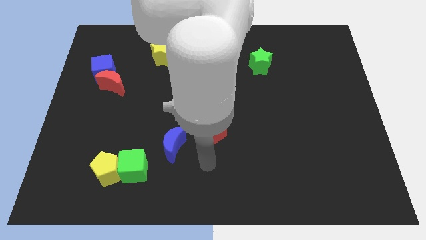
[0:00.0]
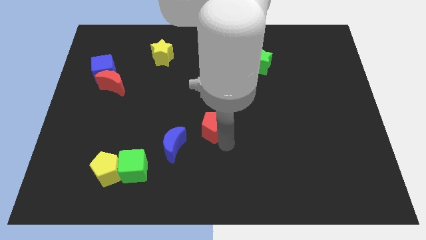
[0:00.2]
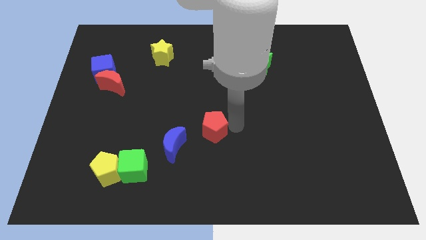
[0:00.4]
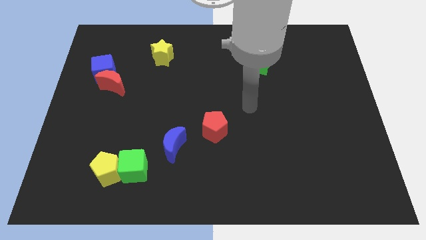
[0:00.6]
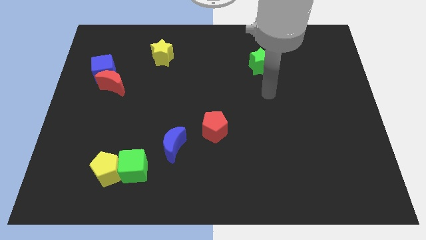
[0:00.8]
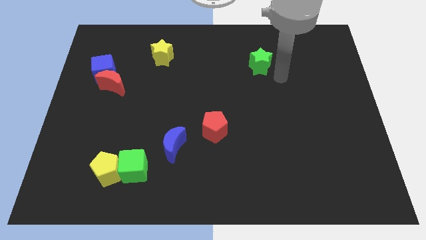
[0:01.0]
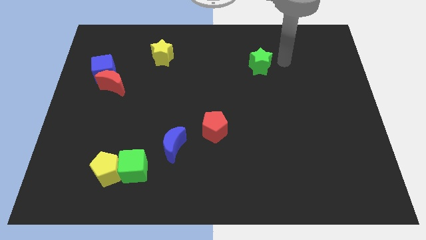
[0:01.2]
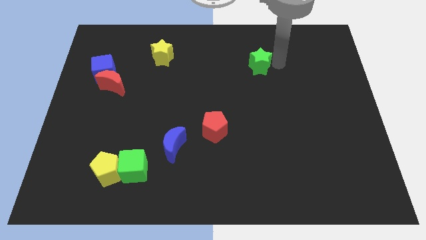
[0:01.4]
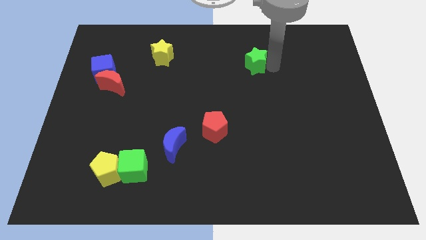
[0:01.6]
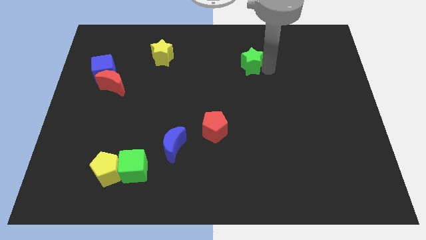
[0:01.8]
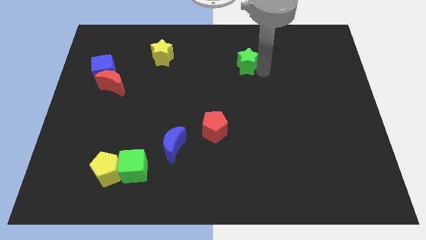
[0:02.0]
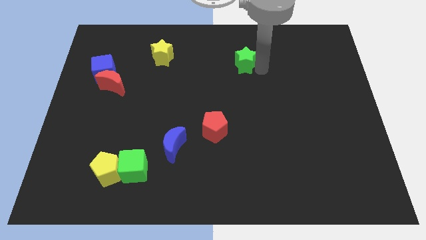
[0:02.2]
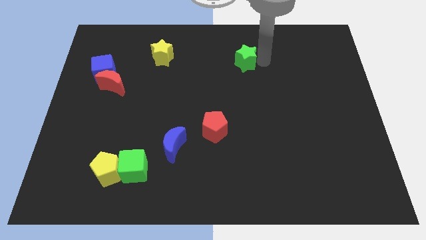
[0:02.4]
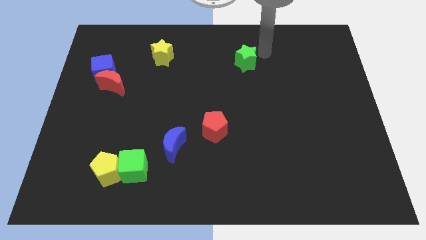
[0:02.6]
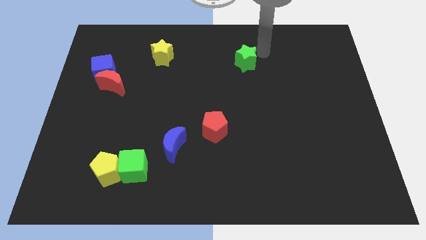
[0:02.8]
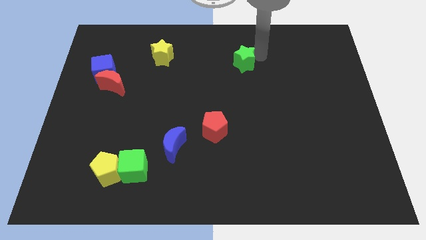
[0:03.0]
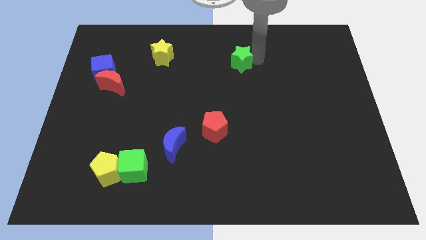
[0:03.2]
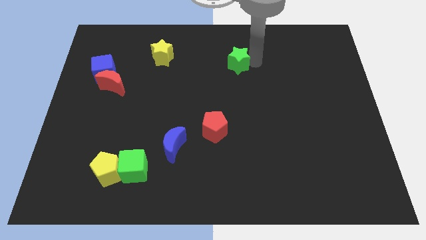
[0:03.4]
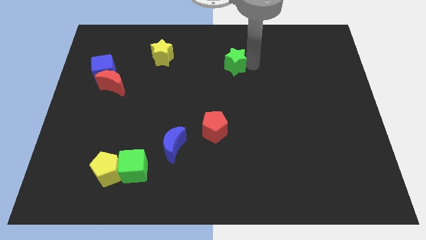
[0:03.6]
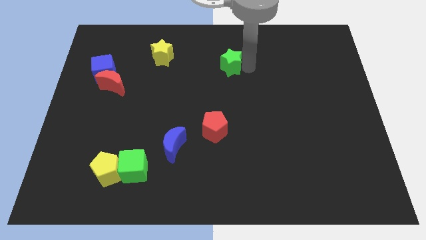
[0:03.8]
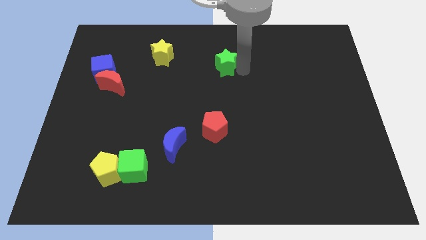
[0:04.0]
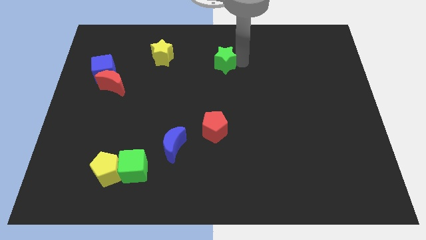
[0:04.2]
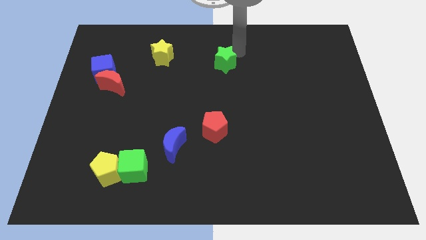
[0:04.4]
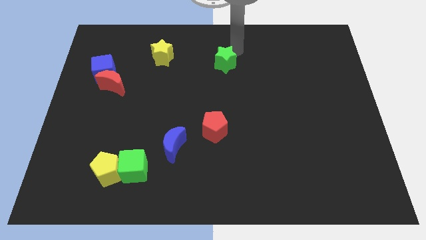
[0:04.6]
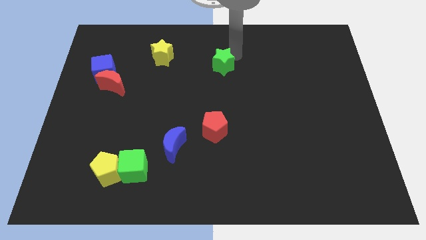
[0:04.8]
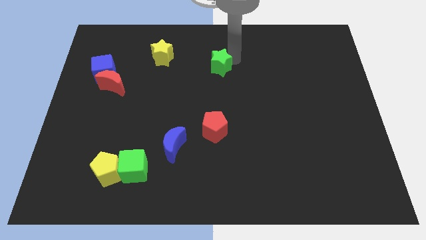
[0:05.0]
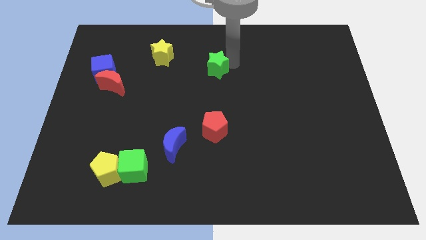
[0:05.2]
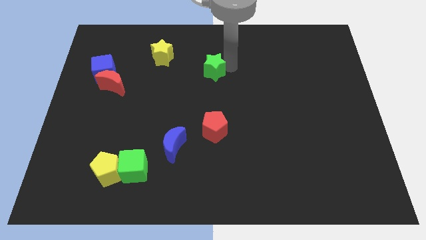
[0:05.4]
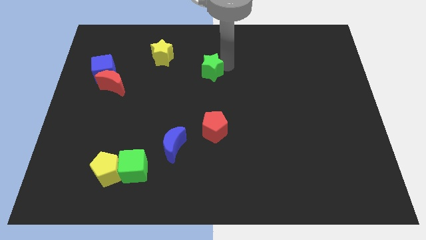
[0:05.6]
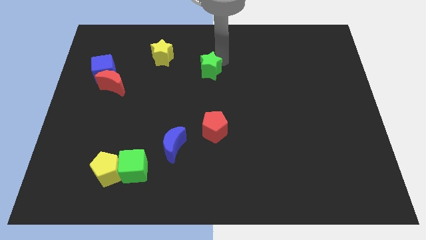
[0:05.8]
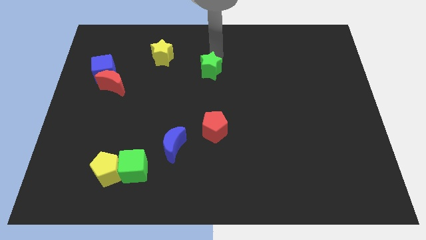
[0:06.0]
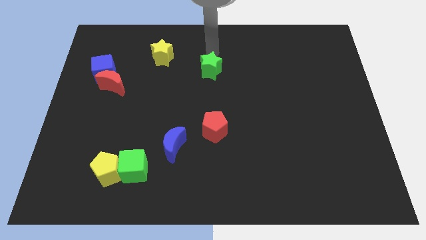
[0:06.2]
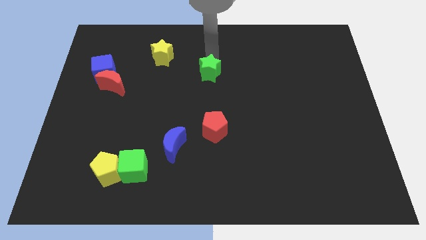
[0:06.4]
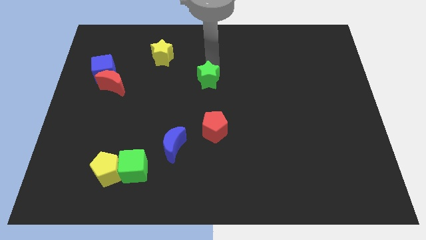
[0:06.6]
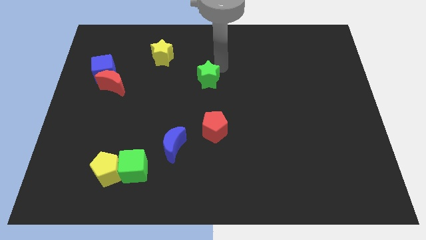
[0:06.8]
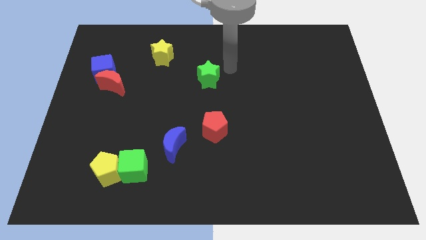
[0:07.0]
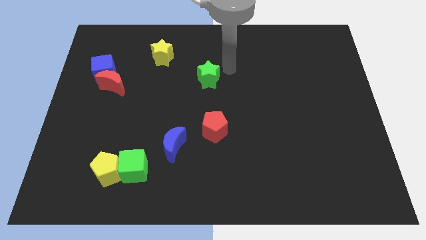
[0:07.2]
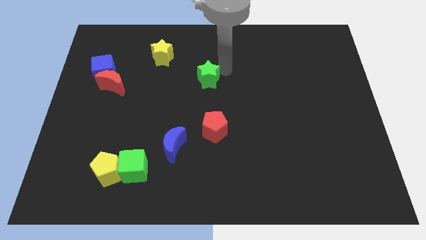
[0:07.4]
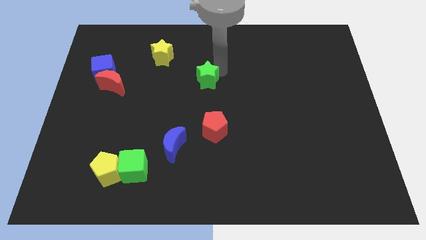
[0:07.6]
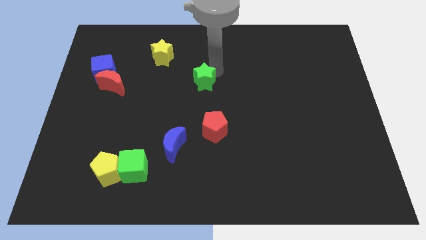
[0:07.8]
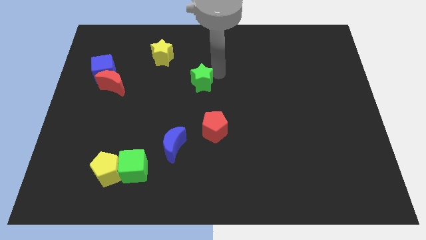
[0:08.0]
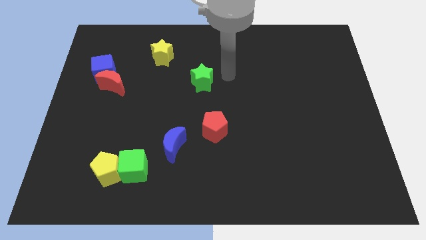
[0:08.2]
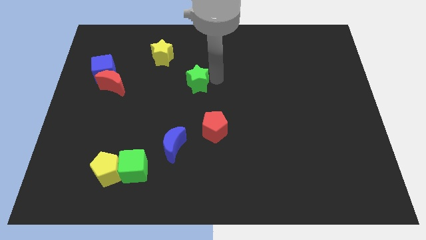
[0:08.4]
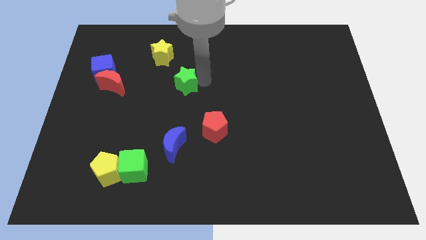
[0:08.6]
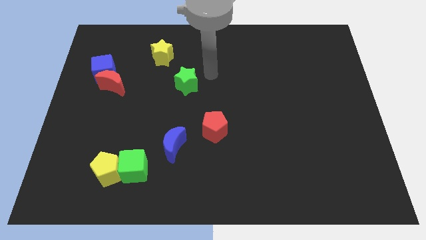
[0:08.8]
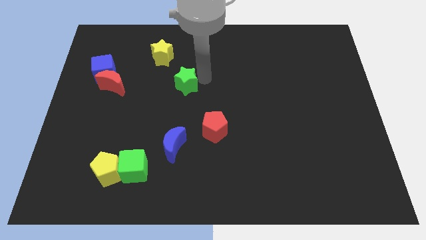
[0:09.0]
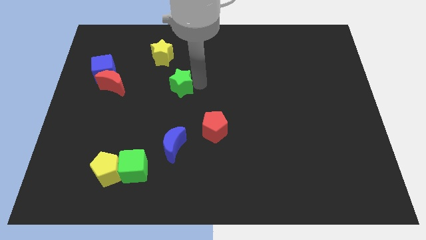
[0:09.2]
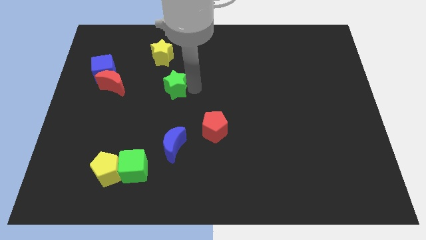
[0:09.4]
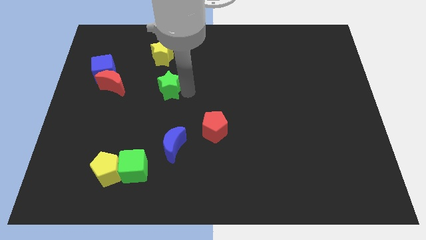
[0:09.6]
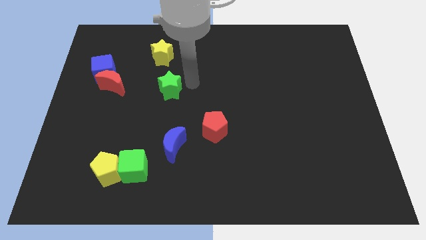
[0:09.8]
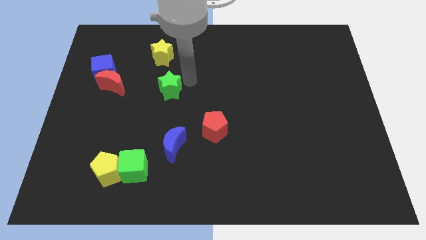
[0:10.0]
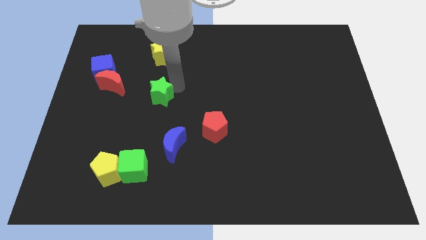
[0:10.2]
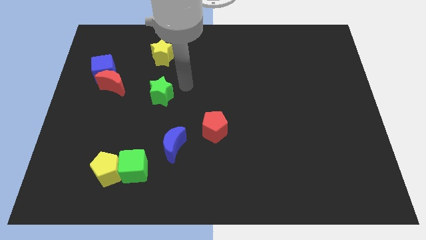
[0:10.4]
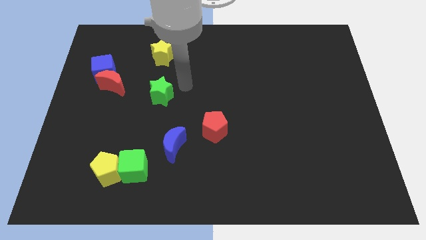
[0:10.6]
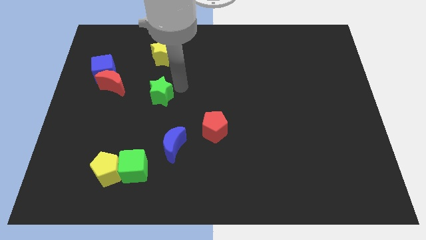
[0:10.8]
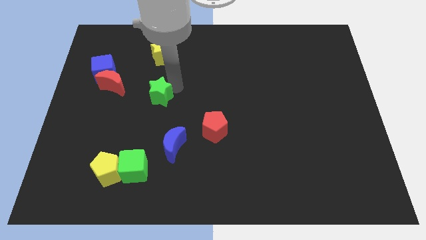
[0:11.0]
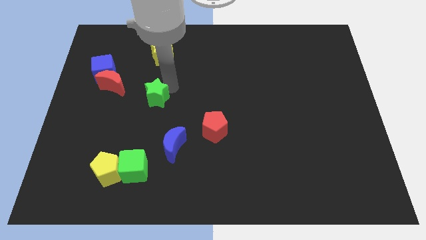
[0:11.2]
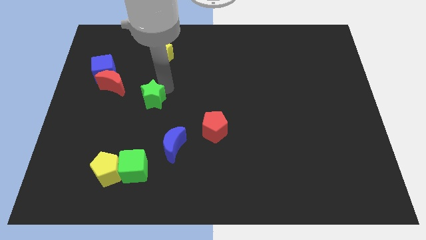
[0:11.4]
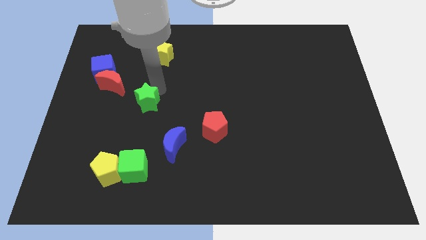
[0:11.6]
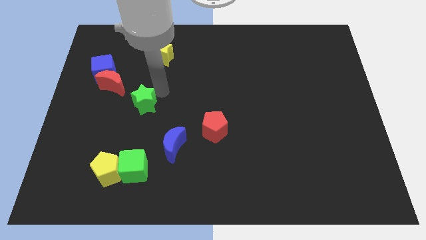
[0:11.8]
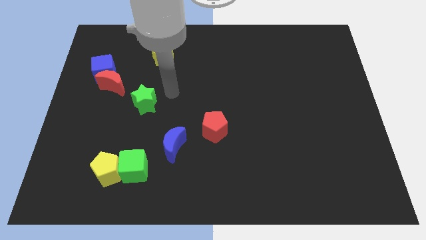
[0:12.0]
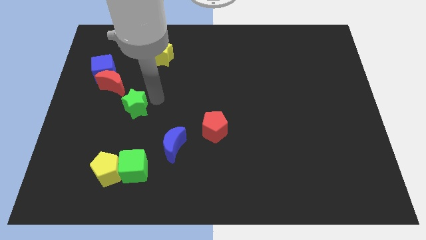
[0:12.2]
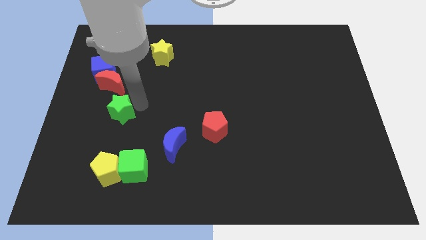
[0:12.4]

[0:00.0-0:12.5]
push the green star below the red moon

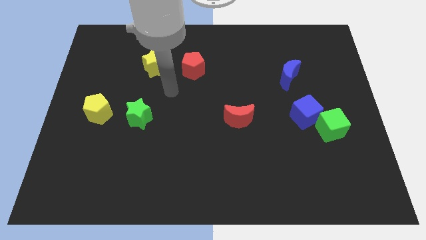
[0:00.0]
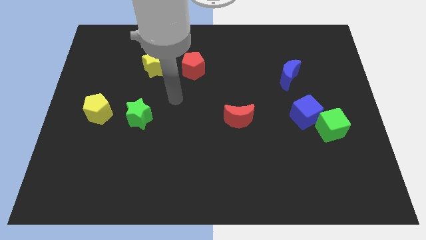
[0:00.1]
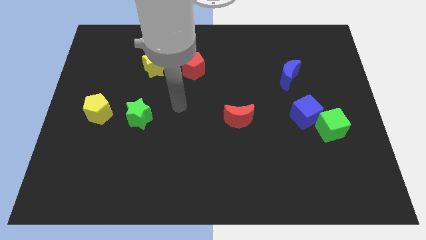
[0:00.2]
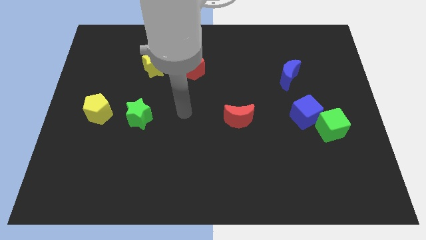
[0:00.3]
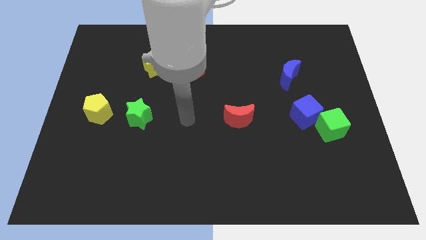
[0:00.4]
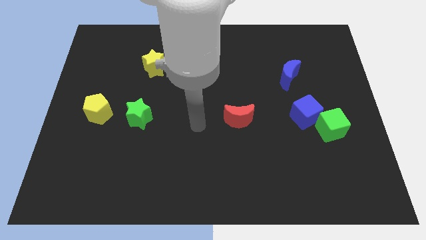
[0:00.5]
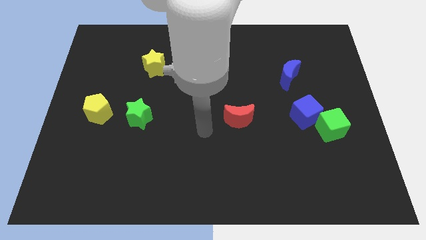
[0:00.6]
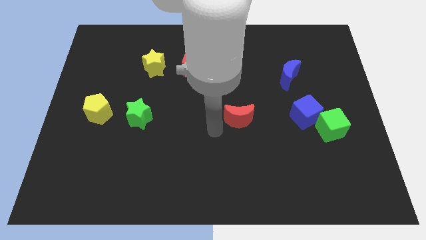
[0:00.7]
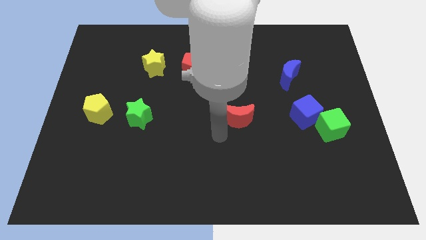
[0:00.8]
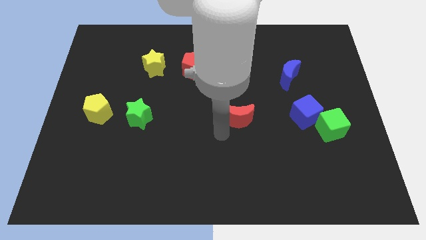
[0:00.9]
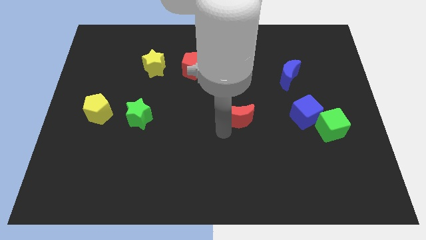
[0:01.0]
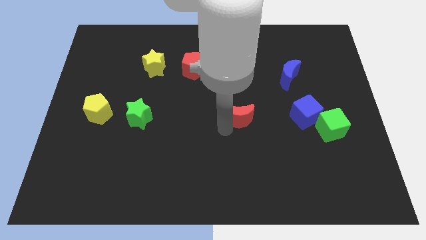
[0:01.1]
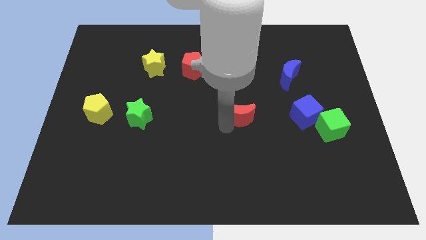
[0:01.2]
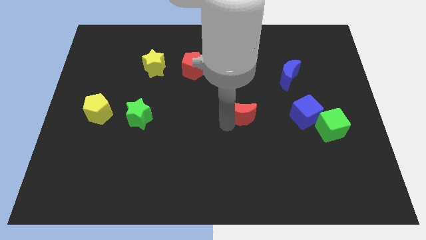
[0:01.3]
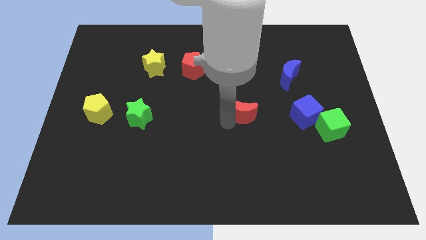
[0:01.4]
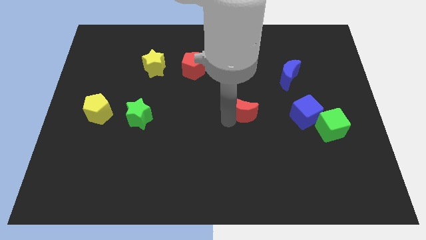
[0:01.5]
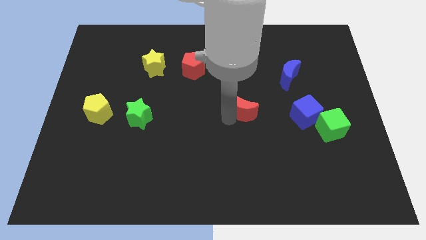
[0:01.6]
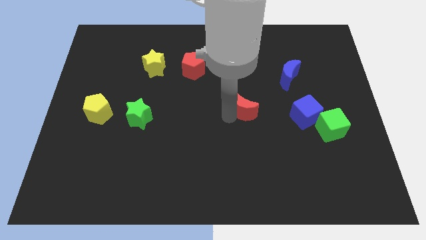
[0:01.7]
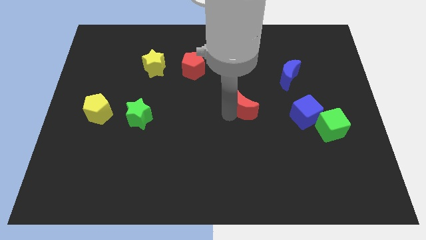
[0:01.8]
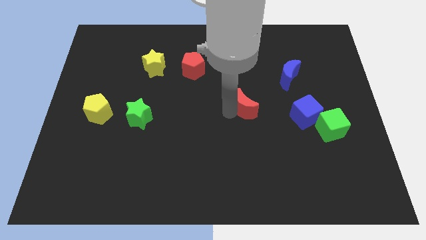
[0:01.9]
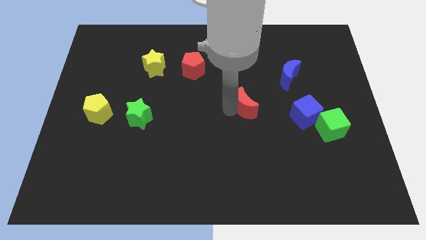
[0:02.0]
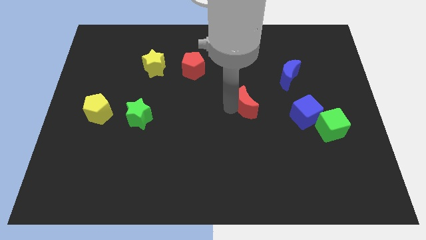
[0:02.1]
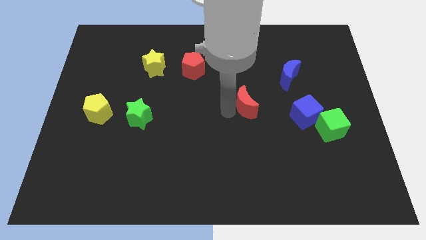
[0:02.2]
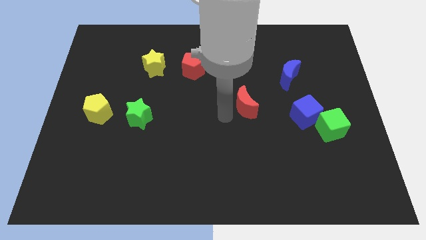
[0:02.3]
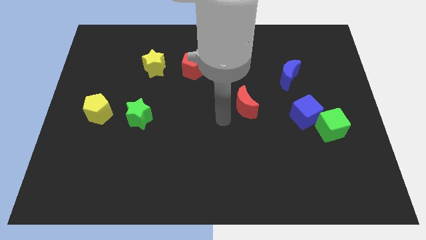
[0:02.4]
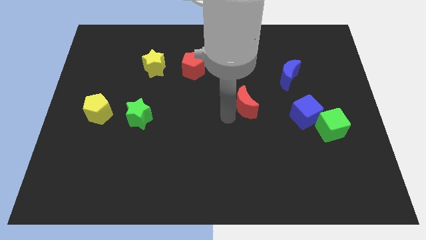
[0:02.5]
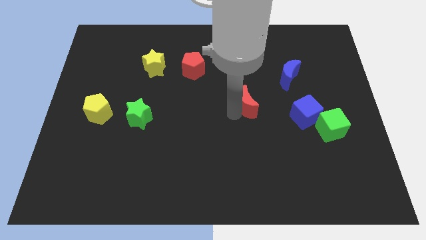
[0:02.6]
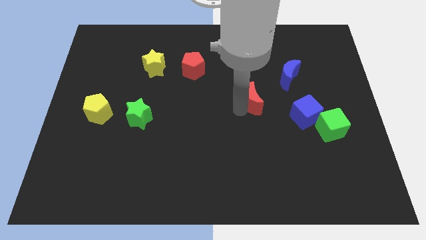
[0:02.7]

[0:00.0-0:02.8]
put the red moon diagonally down and to the left of the blue moon
